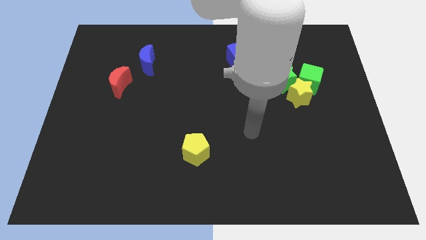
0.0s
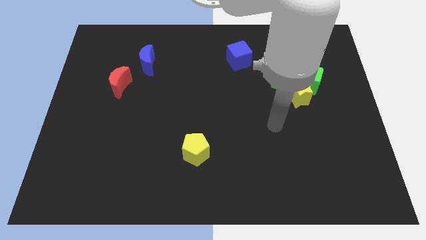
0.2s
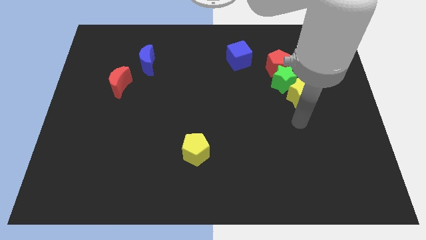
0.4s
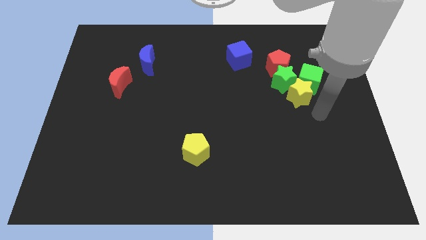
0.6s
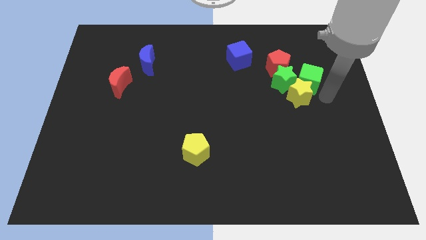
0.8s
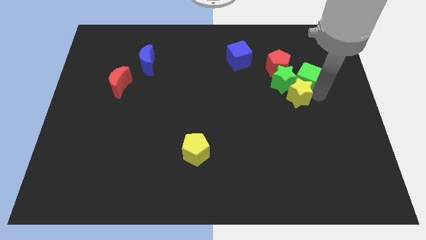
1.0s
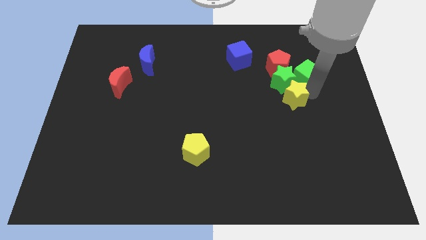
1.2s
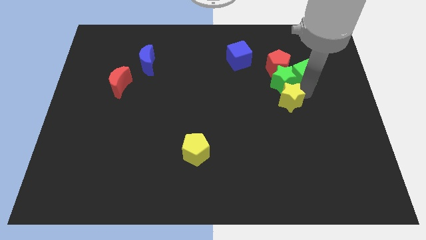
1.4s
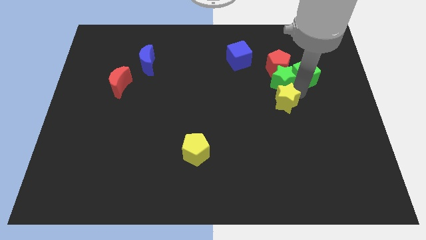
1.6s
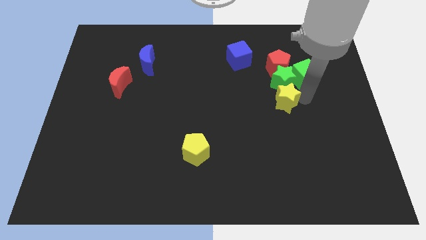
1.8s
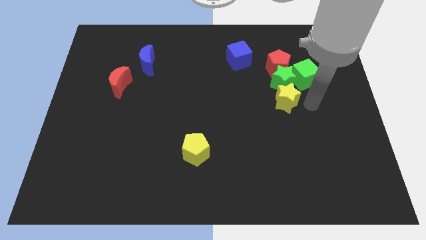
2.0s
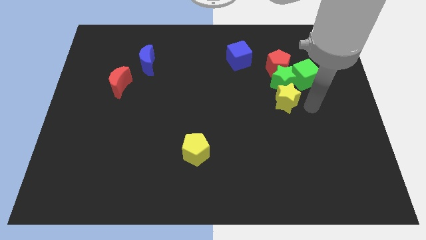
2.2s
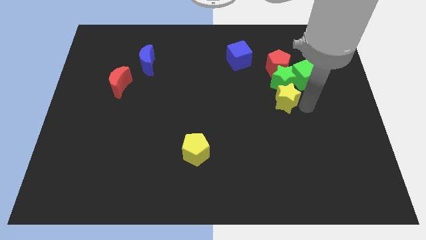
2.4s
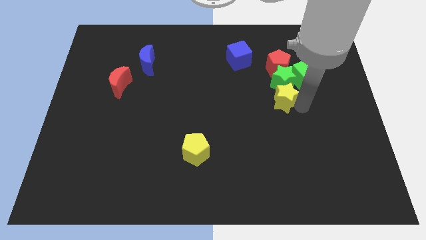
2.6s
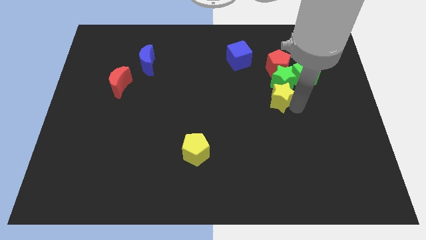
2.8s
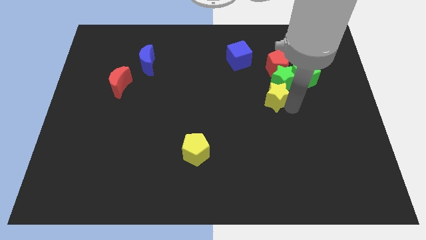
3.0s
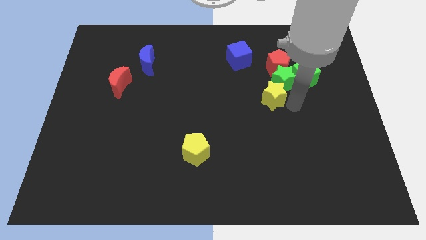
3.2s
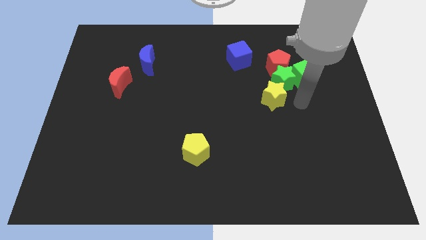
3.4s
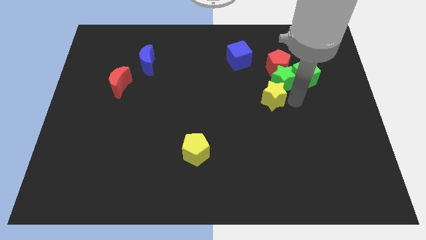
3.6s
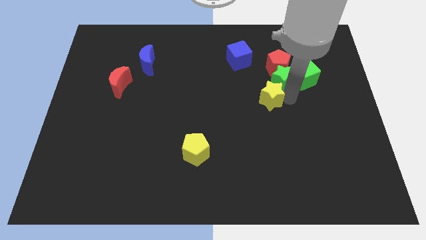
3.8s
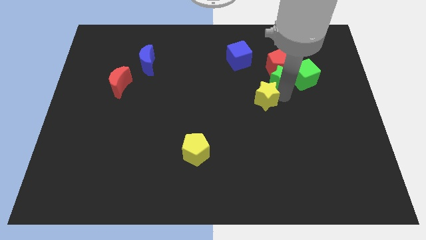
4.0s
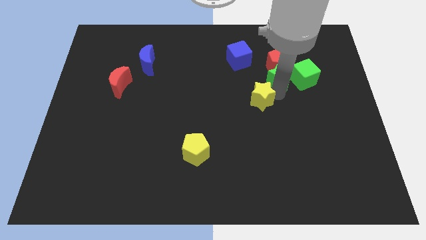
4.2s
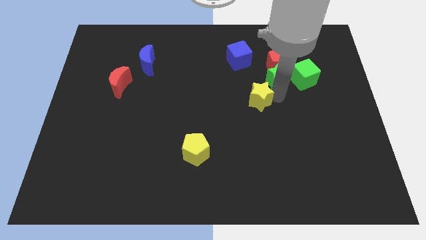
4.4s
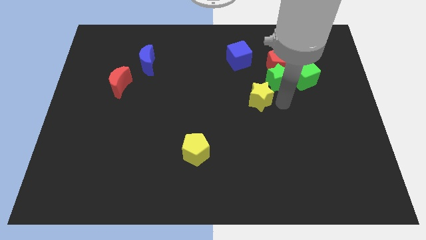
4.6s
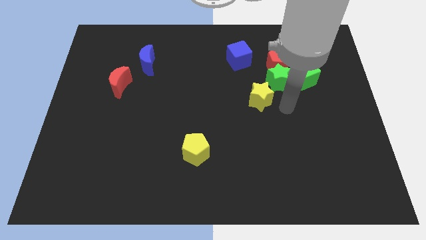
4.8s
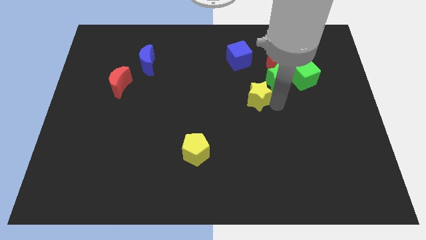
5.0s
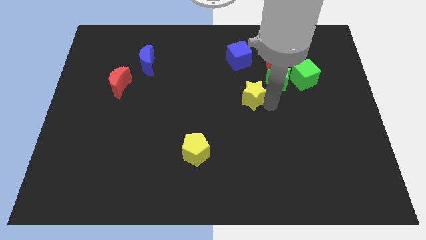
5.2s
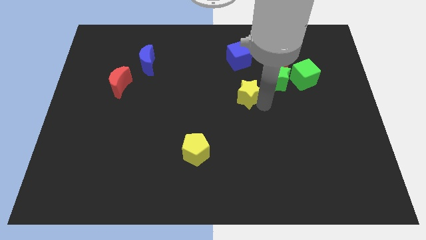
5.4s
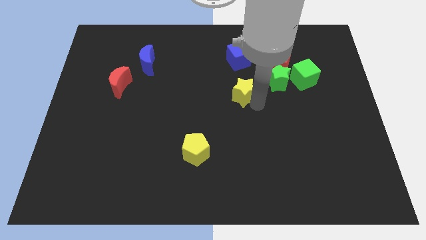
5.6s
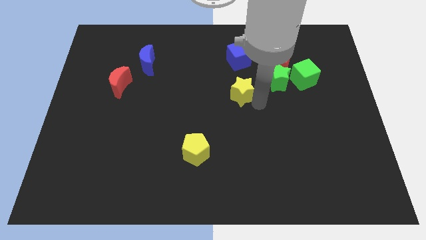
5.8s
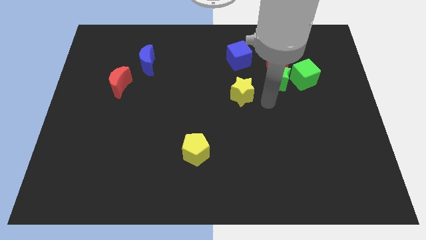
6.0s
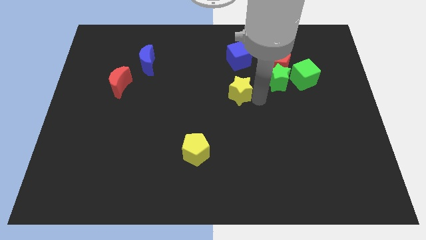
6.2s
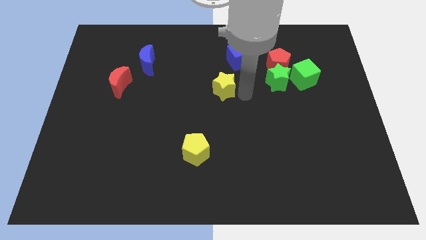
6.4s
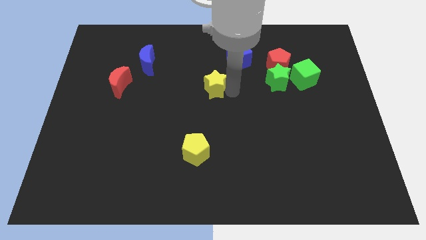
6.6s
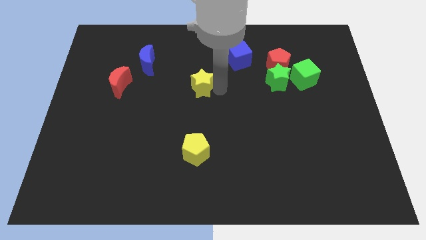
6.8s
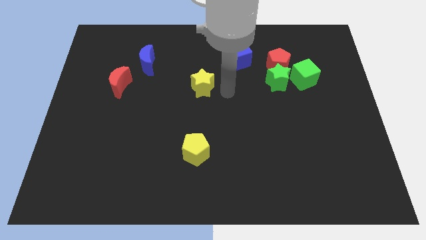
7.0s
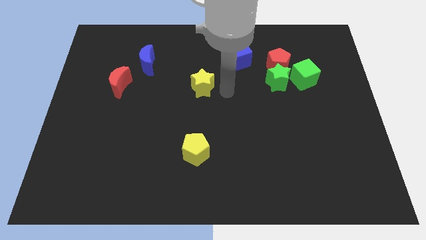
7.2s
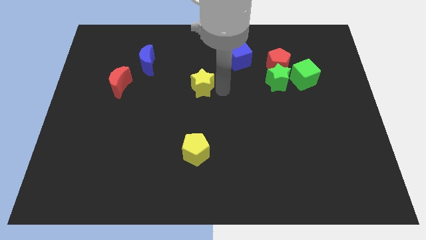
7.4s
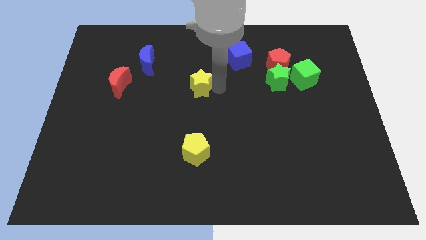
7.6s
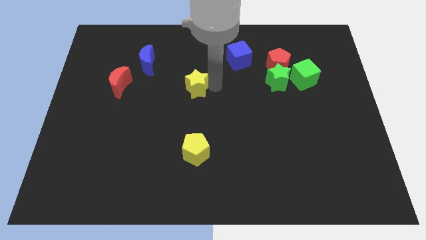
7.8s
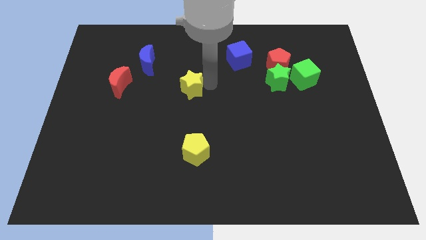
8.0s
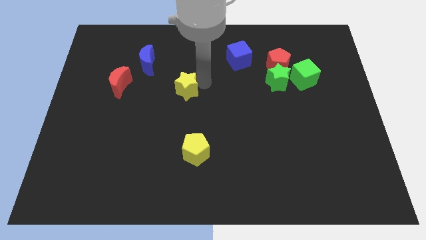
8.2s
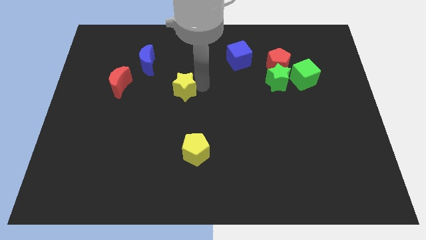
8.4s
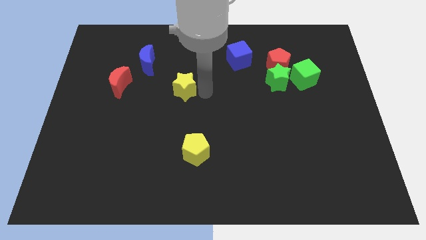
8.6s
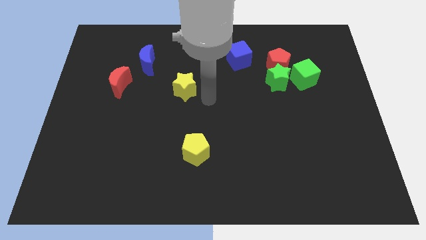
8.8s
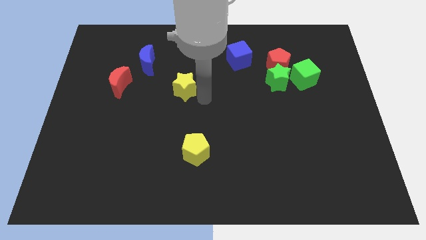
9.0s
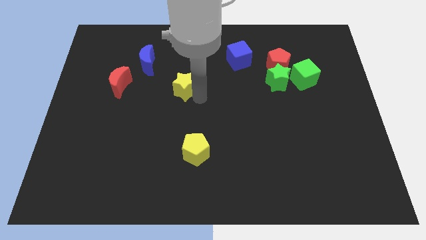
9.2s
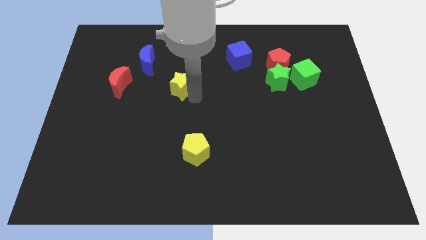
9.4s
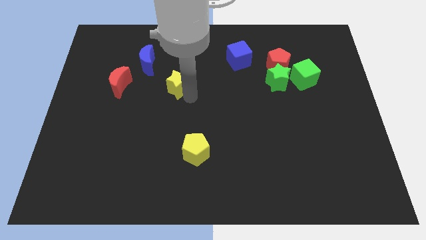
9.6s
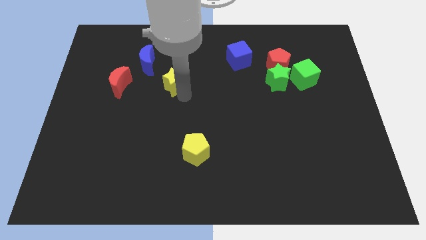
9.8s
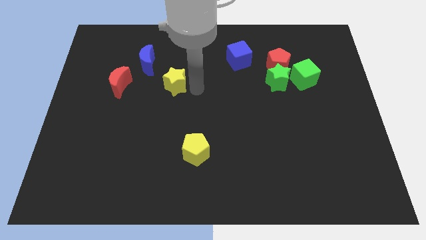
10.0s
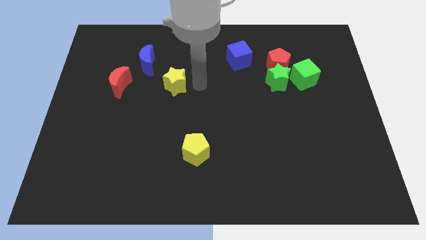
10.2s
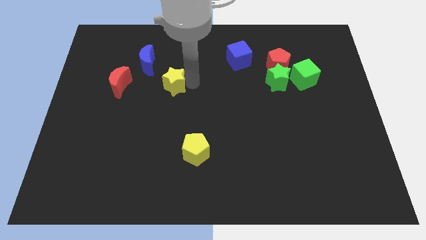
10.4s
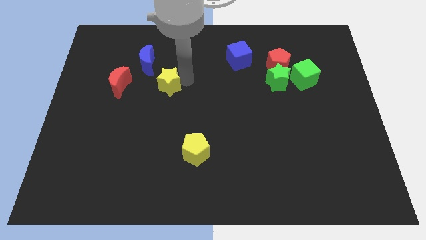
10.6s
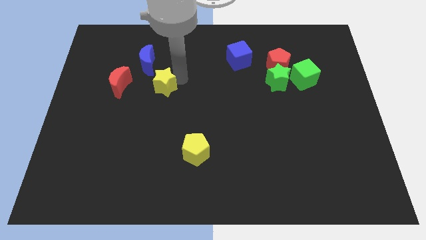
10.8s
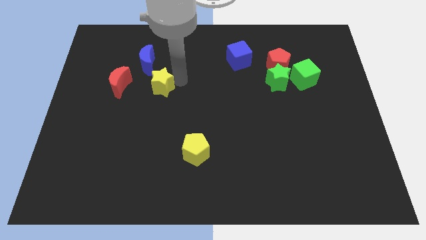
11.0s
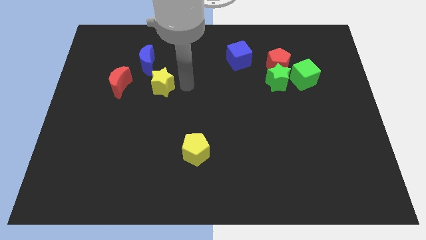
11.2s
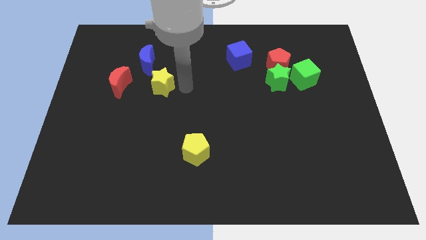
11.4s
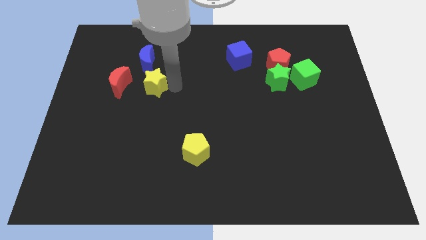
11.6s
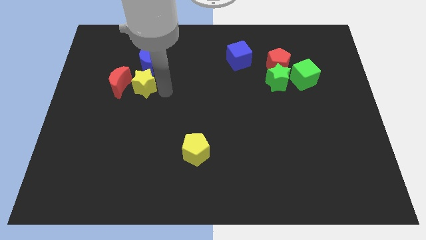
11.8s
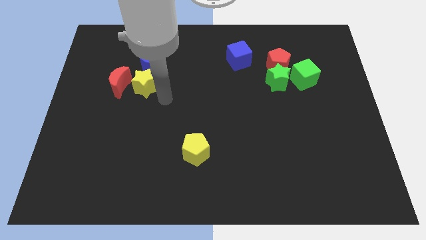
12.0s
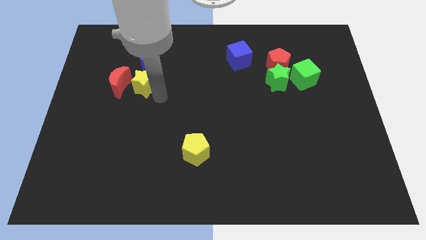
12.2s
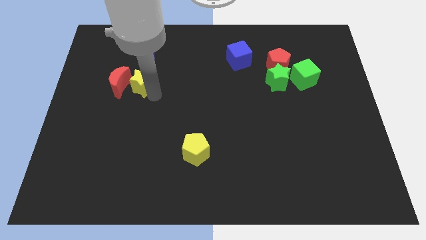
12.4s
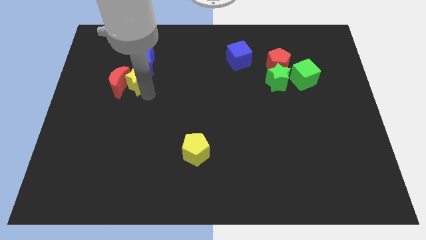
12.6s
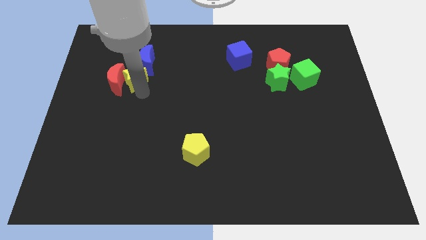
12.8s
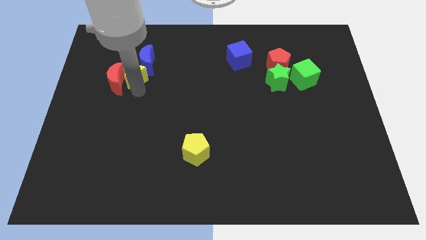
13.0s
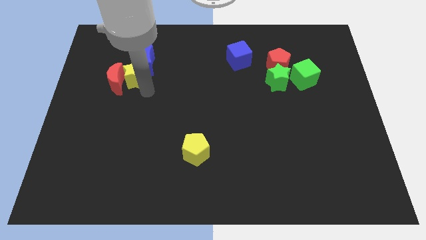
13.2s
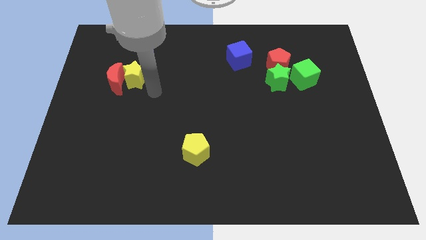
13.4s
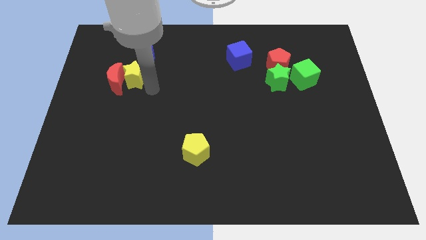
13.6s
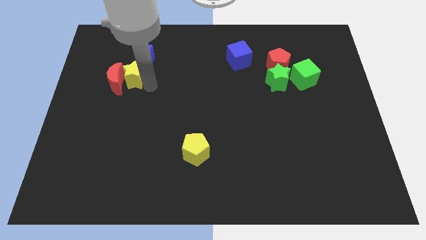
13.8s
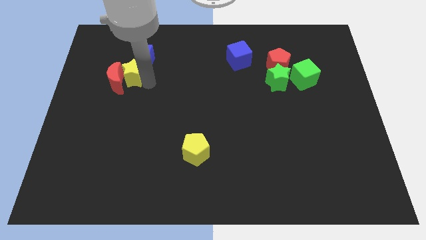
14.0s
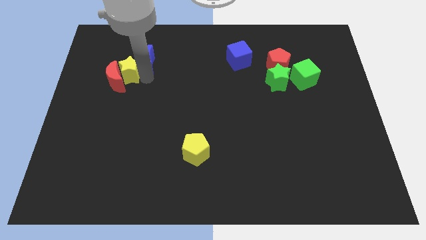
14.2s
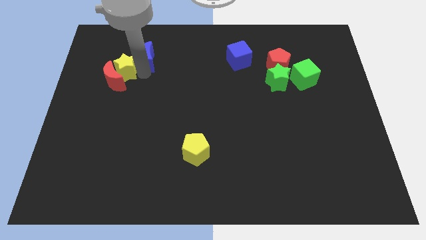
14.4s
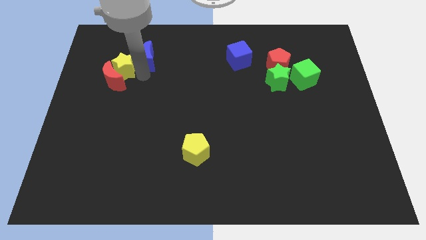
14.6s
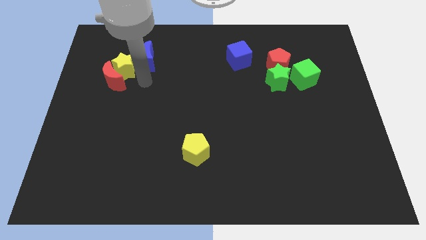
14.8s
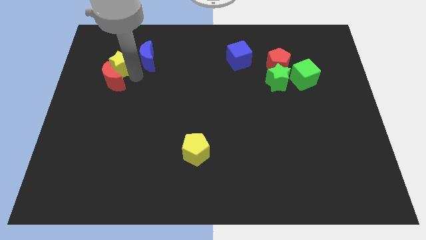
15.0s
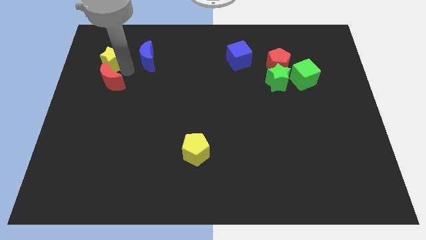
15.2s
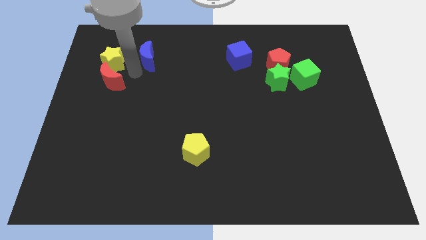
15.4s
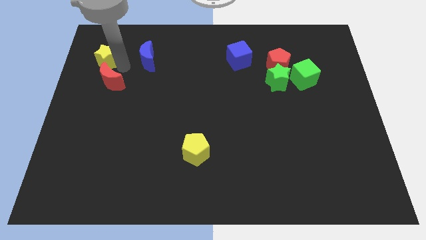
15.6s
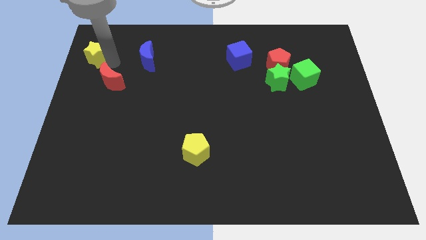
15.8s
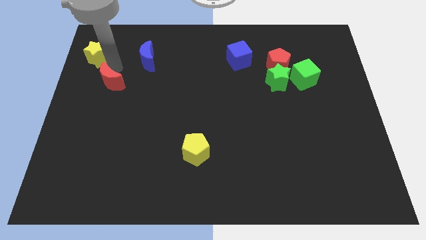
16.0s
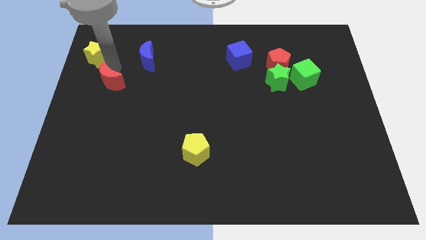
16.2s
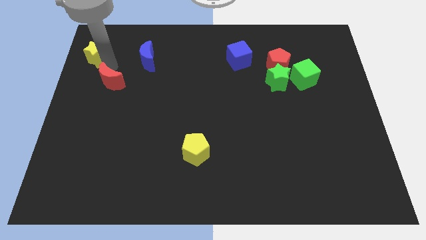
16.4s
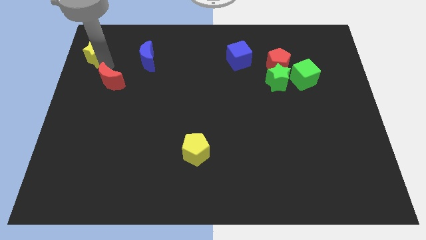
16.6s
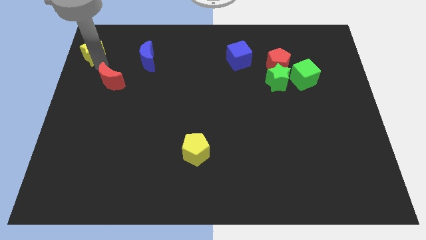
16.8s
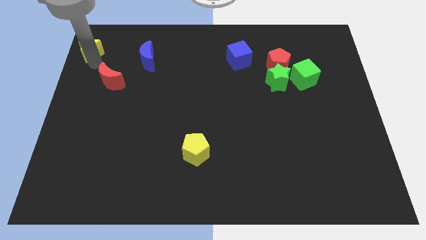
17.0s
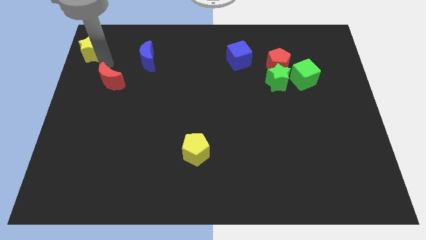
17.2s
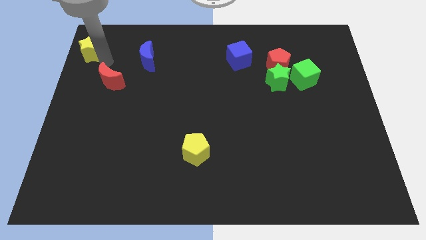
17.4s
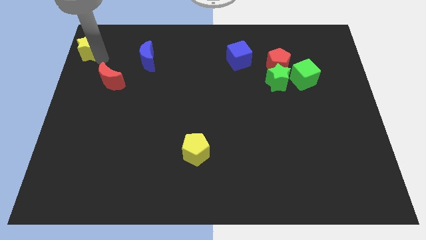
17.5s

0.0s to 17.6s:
push the yellow star to the upper left corner
